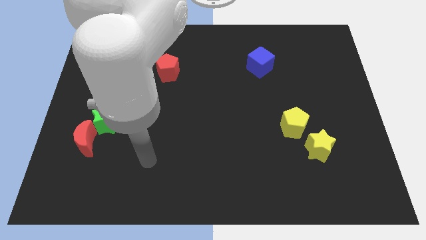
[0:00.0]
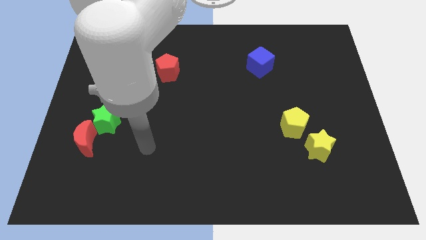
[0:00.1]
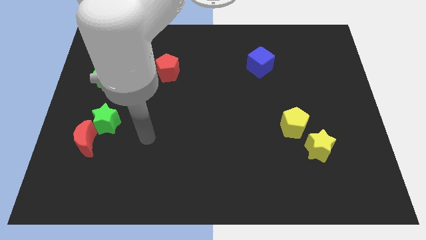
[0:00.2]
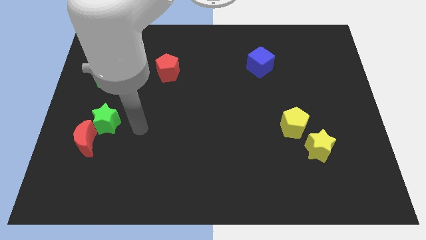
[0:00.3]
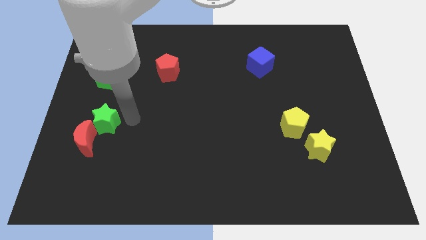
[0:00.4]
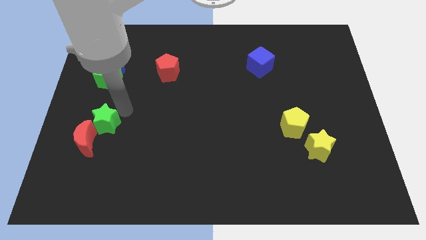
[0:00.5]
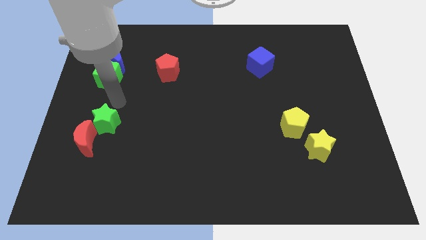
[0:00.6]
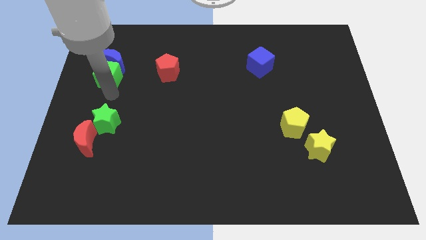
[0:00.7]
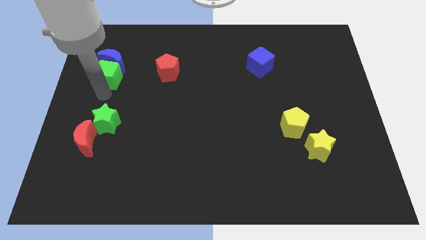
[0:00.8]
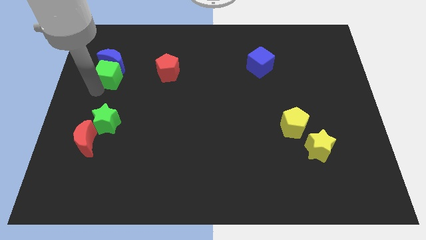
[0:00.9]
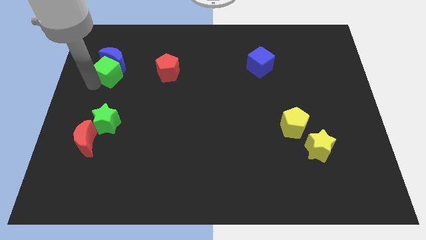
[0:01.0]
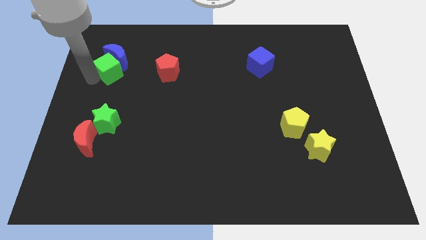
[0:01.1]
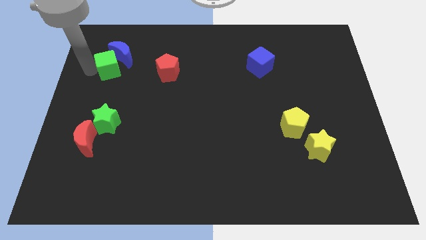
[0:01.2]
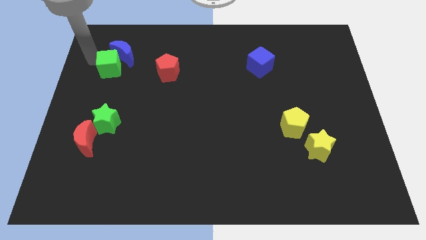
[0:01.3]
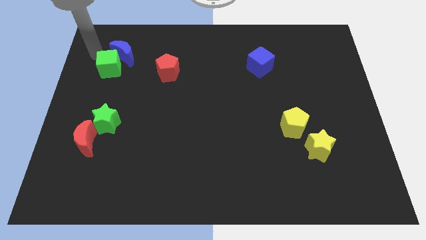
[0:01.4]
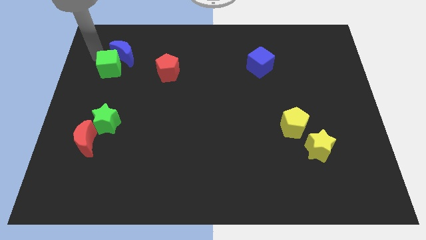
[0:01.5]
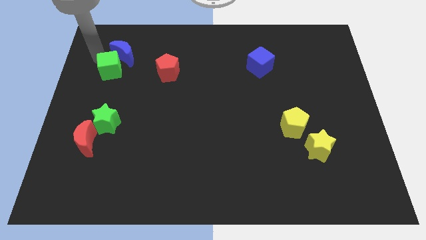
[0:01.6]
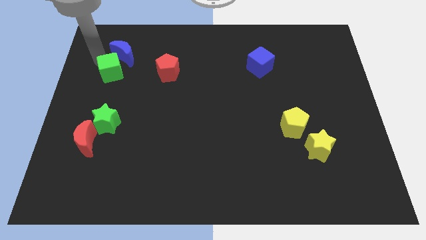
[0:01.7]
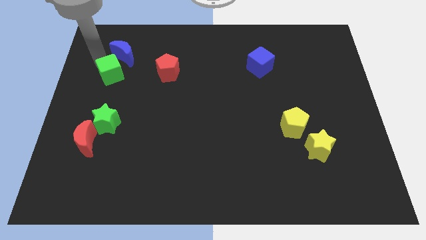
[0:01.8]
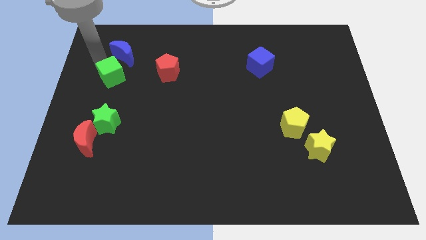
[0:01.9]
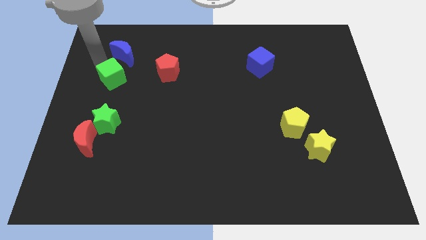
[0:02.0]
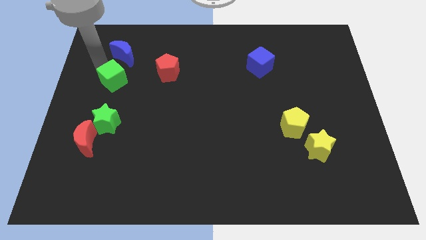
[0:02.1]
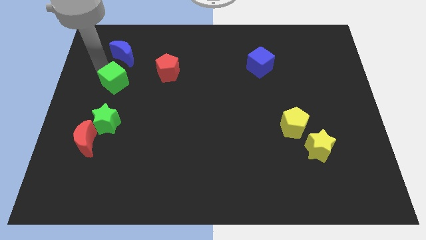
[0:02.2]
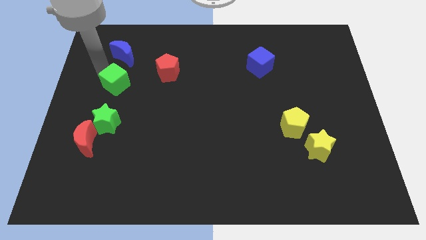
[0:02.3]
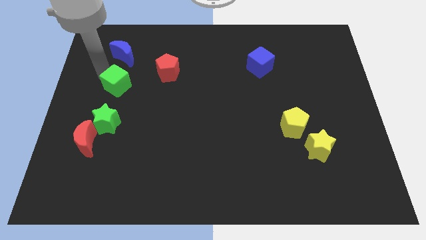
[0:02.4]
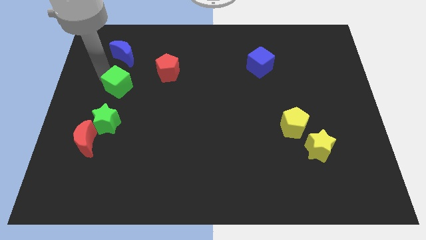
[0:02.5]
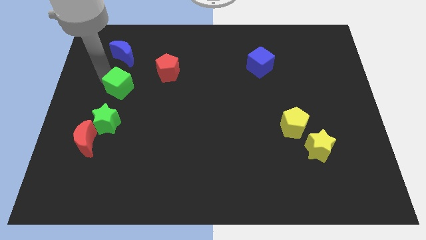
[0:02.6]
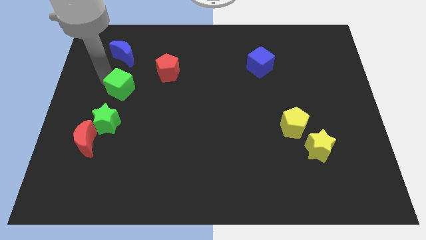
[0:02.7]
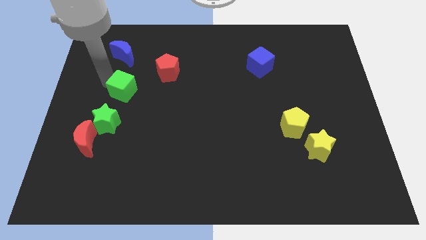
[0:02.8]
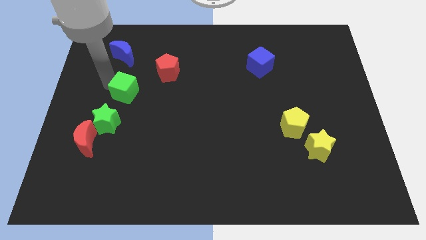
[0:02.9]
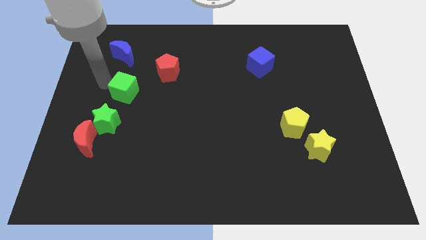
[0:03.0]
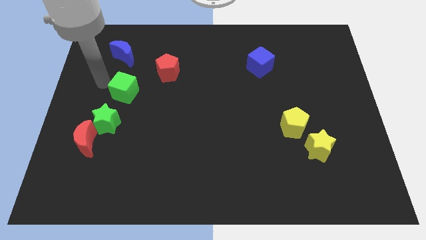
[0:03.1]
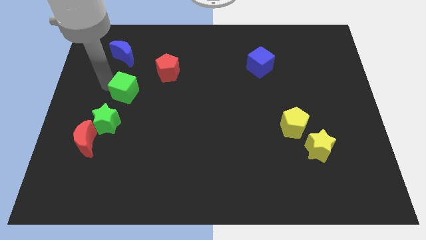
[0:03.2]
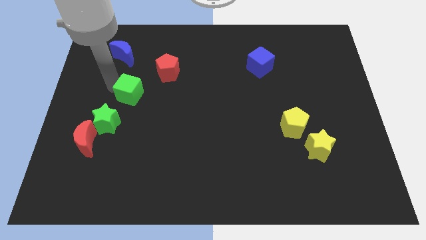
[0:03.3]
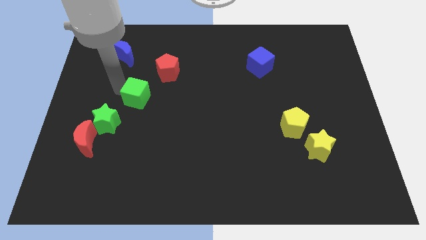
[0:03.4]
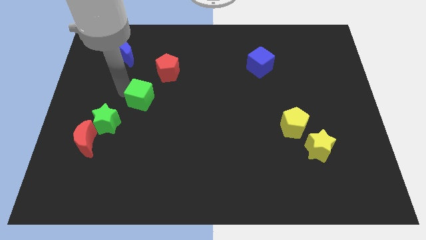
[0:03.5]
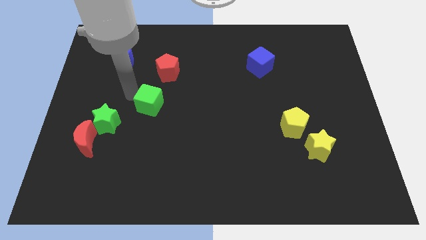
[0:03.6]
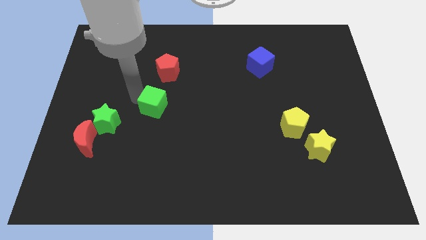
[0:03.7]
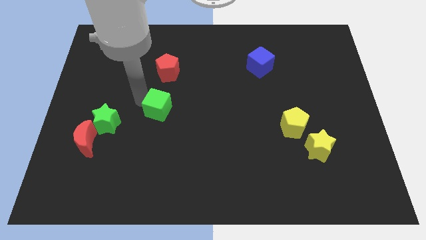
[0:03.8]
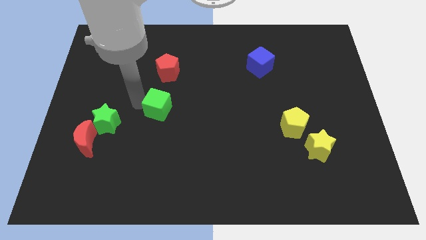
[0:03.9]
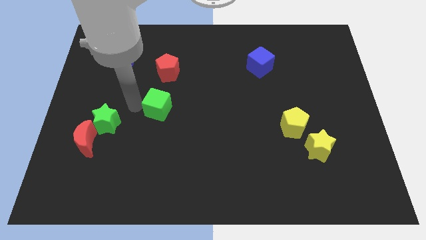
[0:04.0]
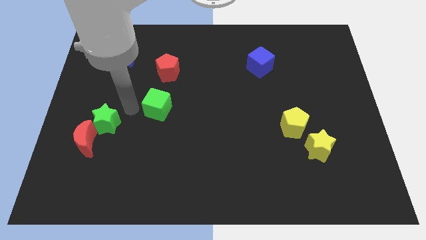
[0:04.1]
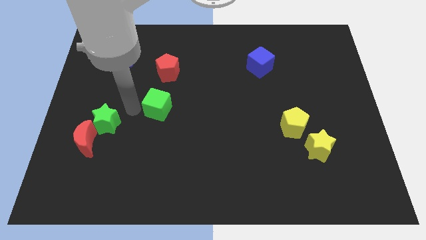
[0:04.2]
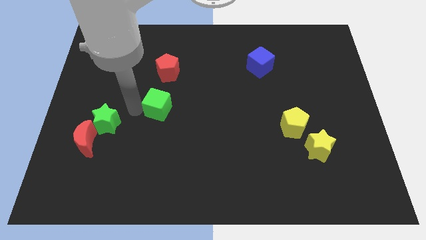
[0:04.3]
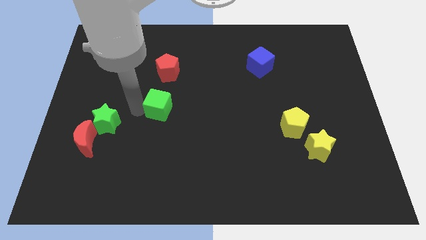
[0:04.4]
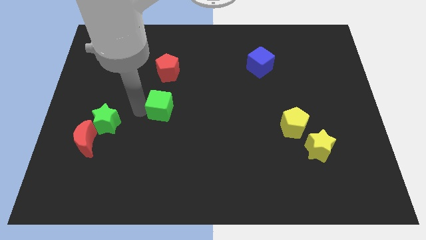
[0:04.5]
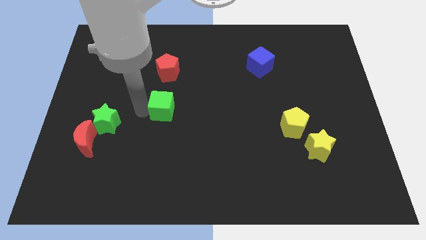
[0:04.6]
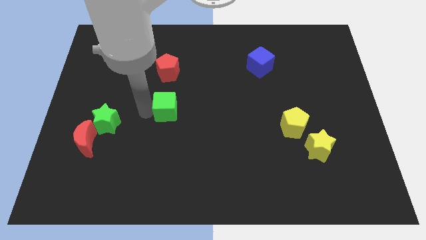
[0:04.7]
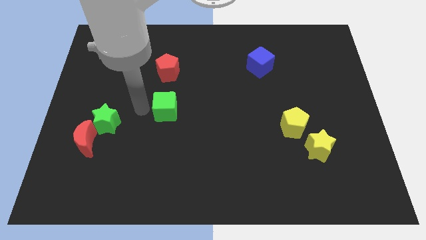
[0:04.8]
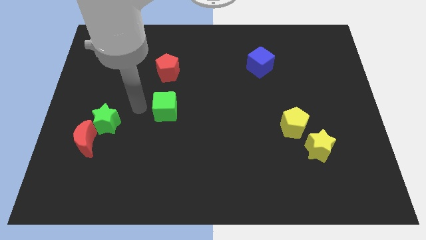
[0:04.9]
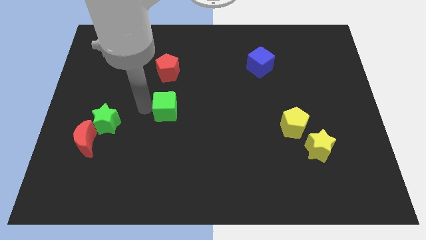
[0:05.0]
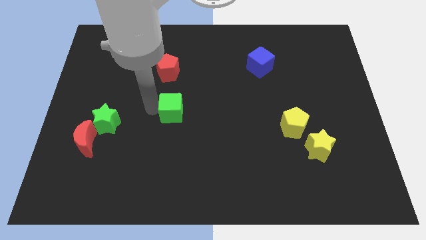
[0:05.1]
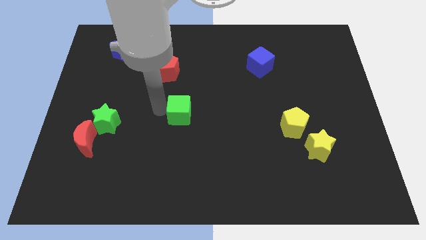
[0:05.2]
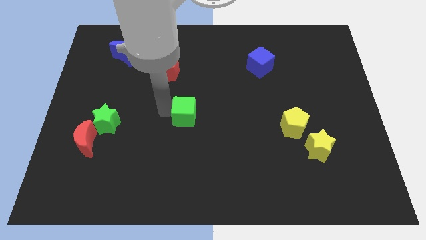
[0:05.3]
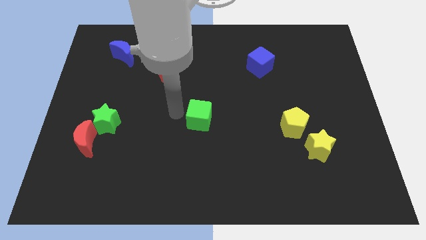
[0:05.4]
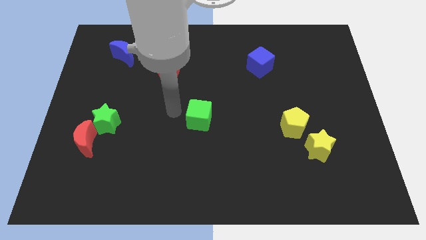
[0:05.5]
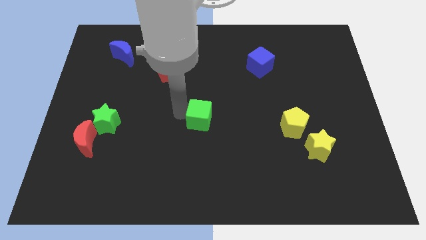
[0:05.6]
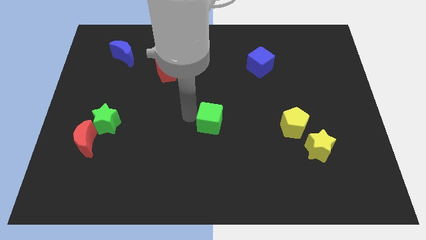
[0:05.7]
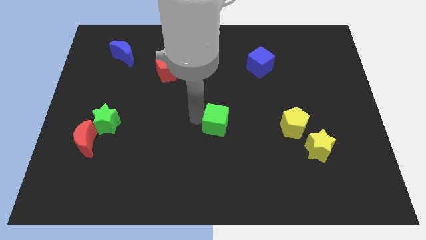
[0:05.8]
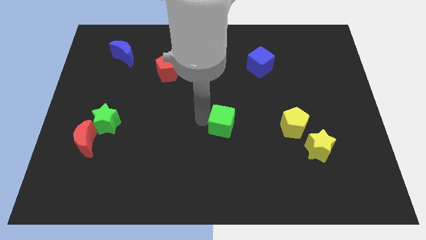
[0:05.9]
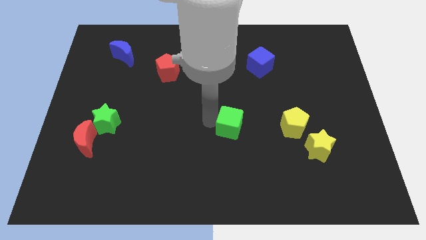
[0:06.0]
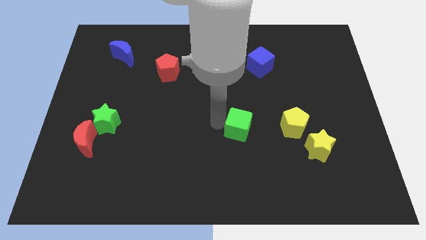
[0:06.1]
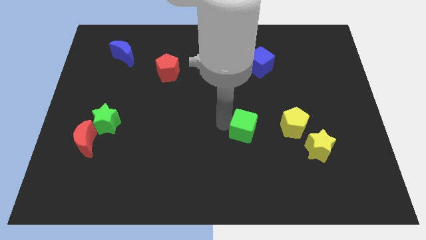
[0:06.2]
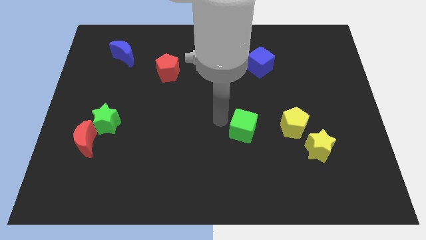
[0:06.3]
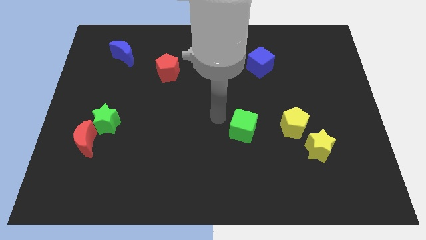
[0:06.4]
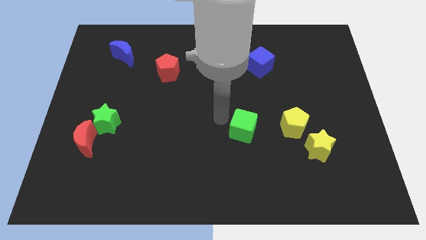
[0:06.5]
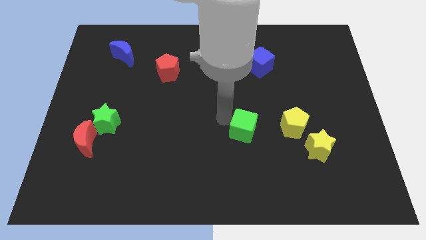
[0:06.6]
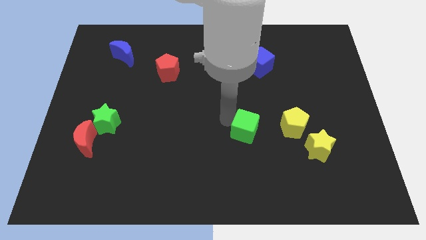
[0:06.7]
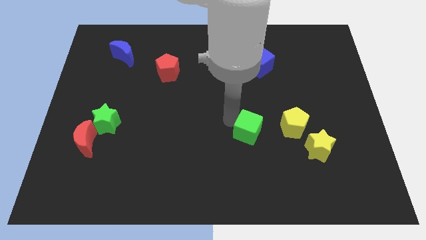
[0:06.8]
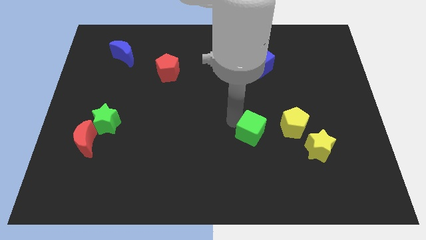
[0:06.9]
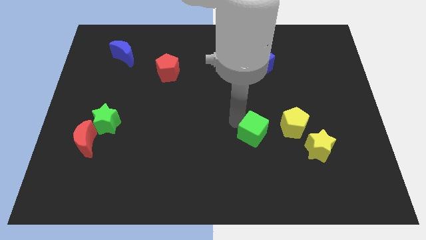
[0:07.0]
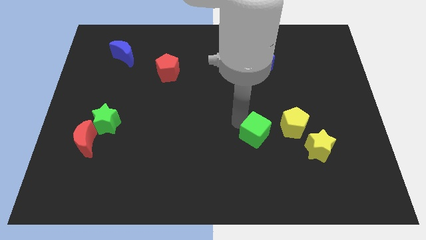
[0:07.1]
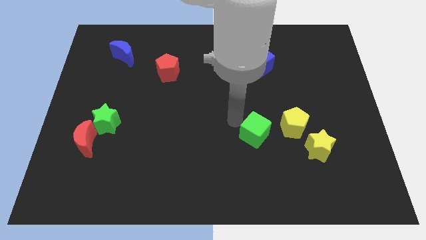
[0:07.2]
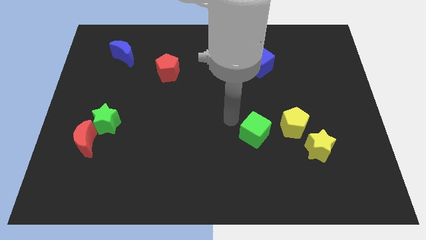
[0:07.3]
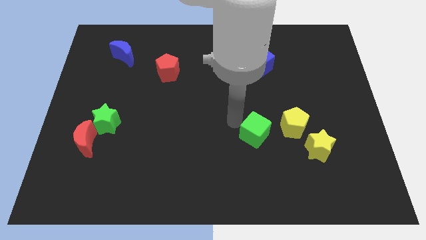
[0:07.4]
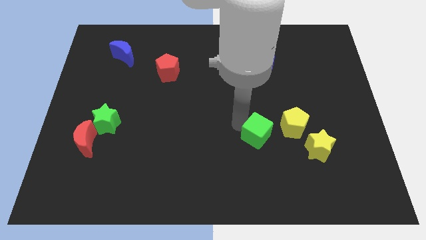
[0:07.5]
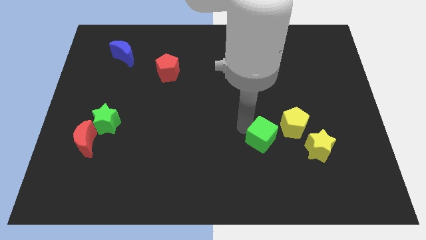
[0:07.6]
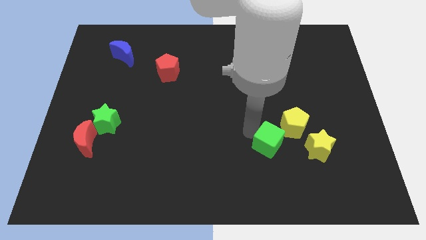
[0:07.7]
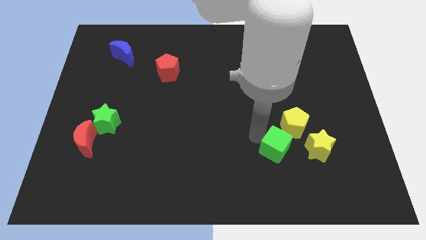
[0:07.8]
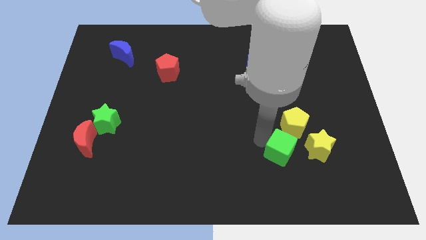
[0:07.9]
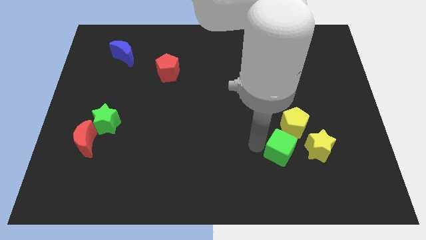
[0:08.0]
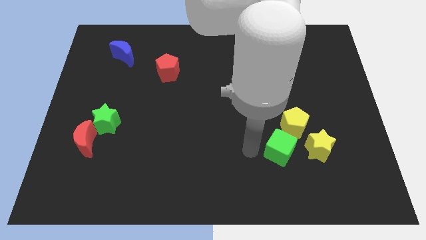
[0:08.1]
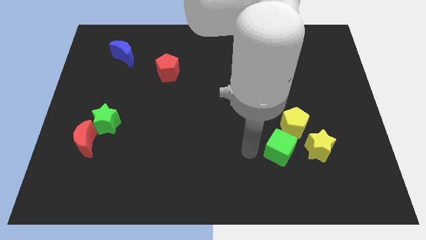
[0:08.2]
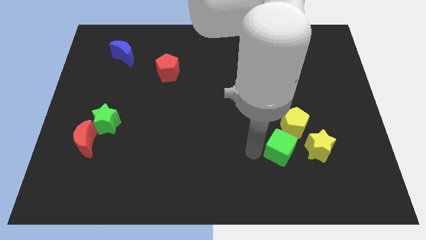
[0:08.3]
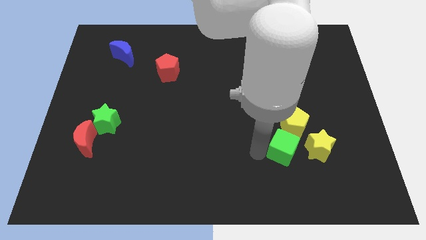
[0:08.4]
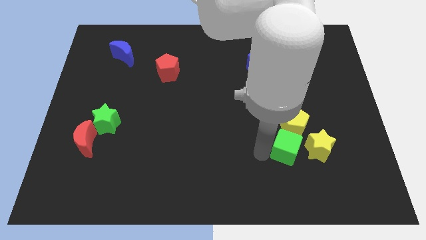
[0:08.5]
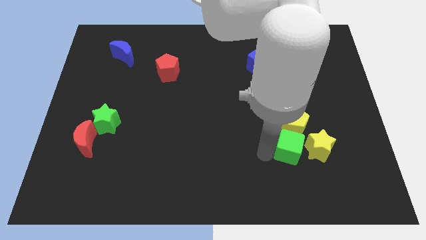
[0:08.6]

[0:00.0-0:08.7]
slide the green cube to the yellow star
